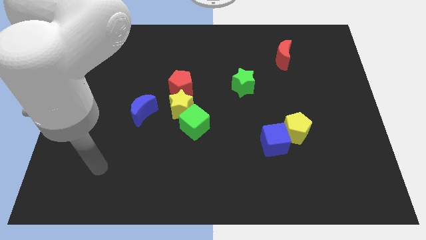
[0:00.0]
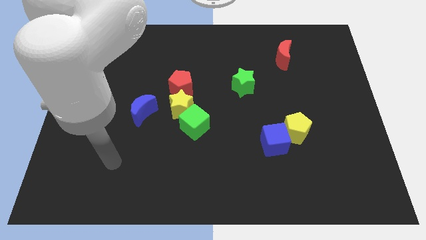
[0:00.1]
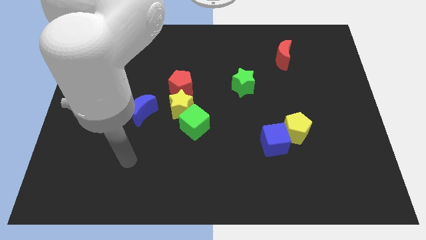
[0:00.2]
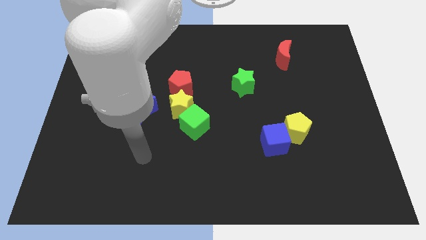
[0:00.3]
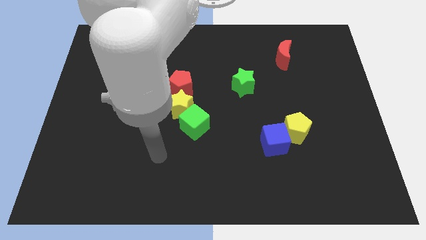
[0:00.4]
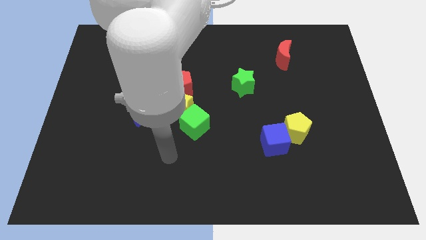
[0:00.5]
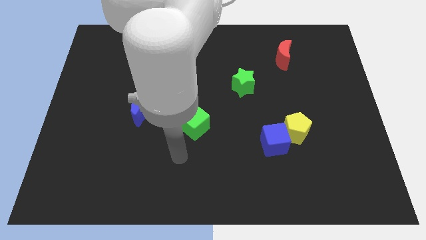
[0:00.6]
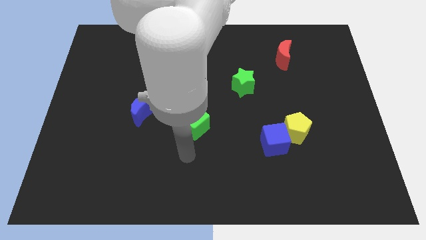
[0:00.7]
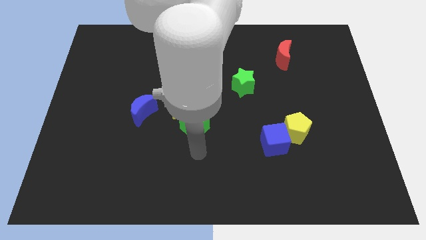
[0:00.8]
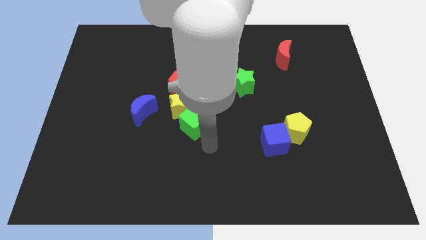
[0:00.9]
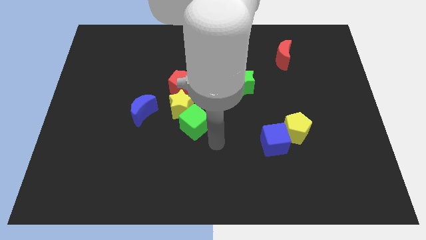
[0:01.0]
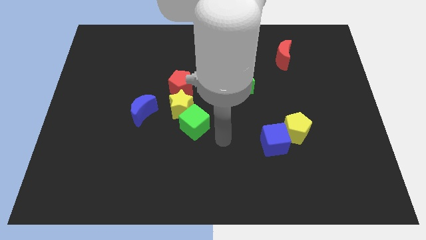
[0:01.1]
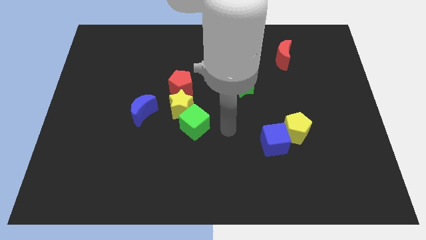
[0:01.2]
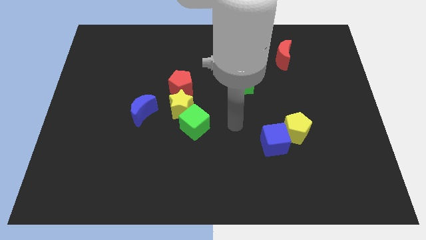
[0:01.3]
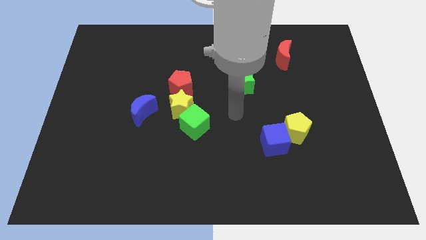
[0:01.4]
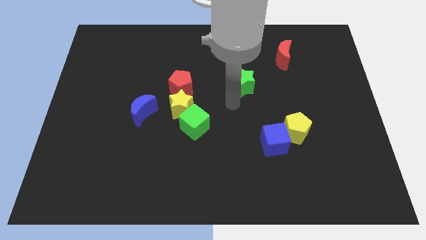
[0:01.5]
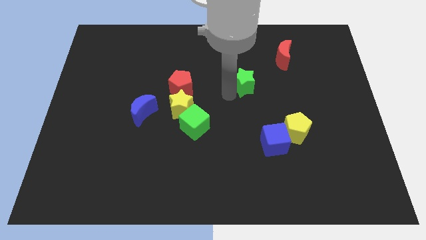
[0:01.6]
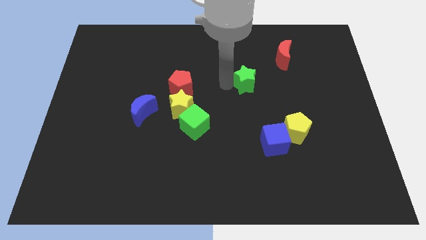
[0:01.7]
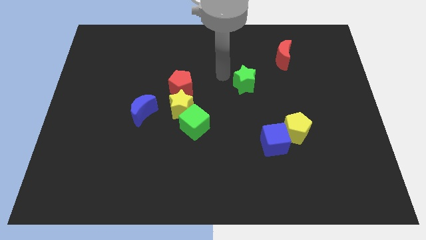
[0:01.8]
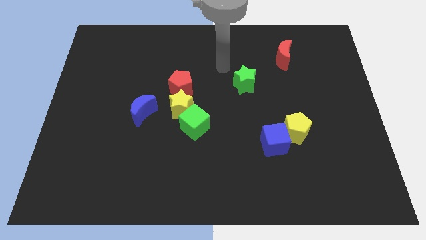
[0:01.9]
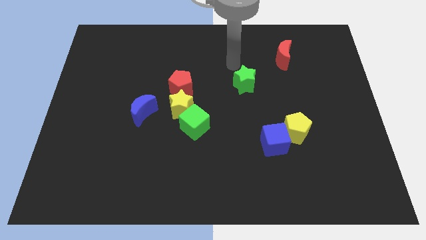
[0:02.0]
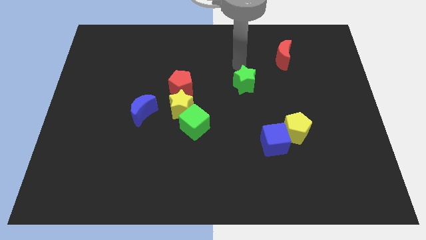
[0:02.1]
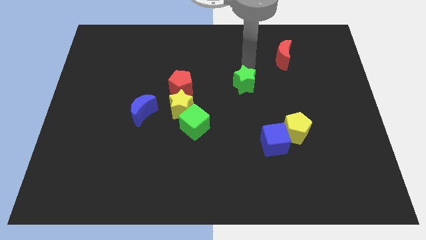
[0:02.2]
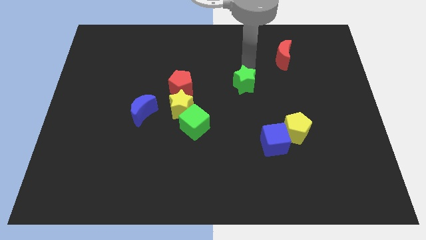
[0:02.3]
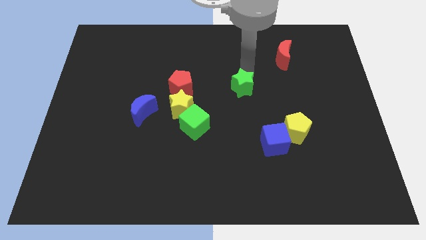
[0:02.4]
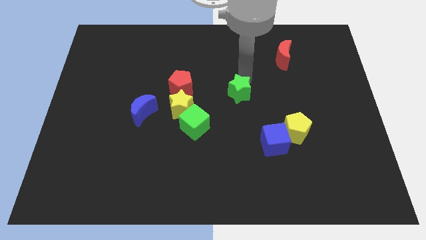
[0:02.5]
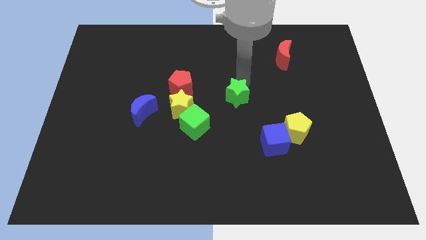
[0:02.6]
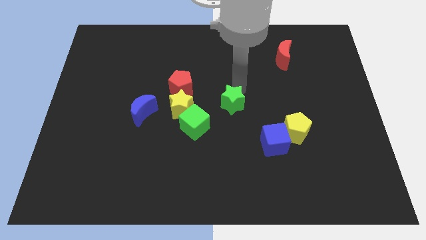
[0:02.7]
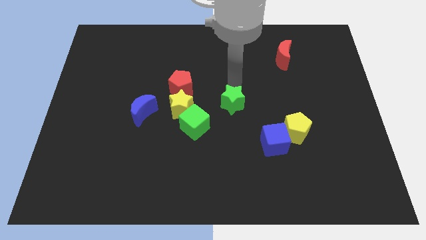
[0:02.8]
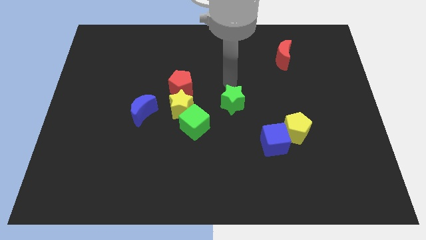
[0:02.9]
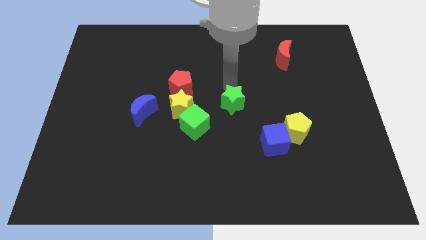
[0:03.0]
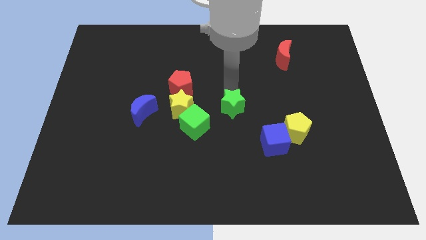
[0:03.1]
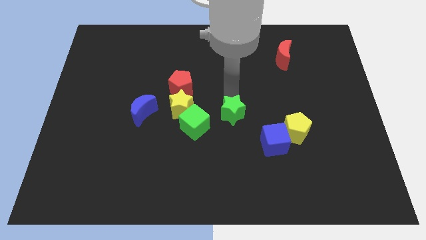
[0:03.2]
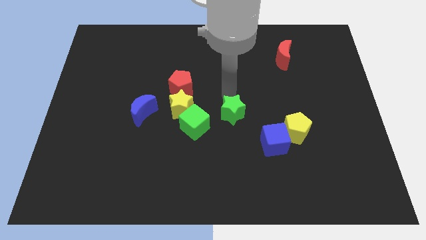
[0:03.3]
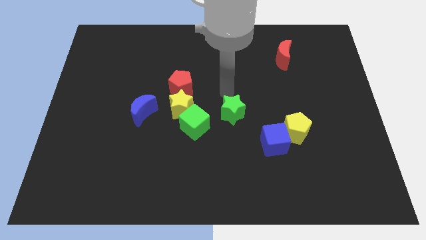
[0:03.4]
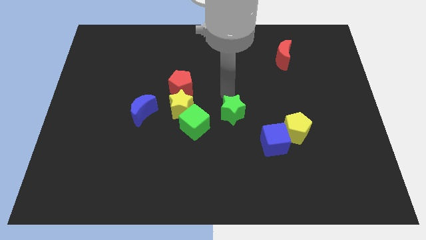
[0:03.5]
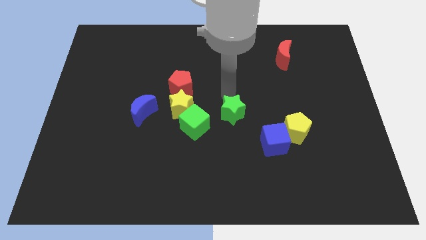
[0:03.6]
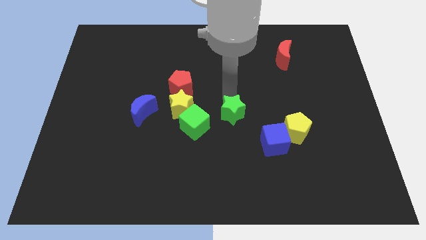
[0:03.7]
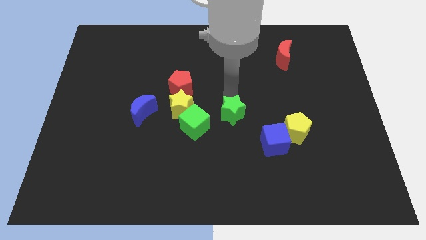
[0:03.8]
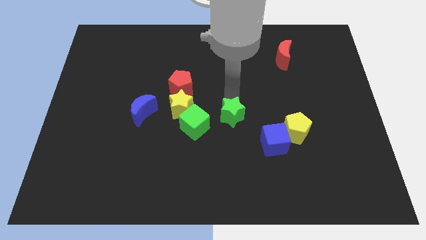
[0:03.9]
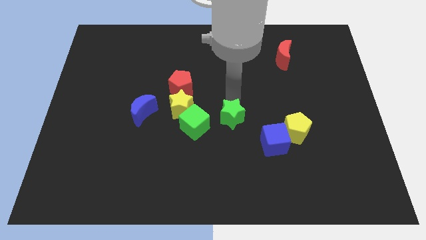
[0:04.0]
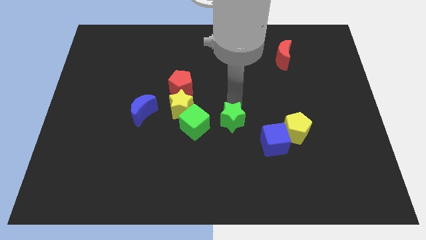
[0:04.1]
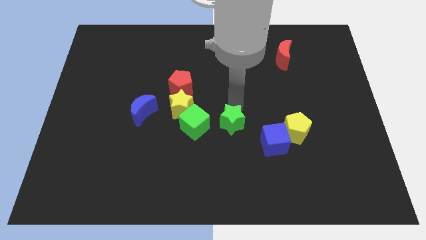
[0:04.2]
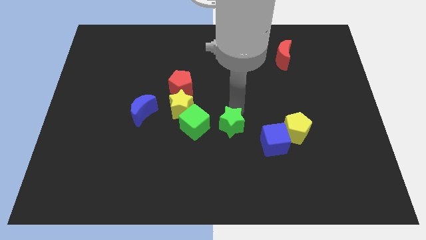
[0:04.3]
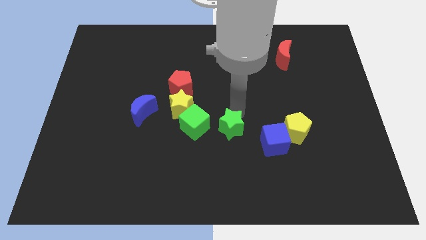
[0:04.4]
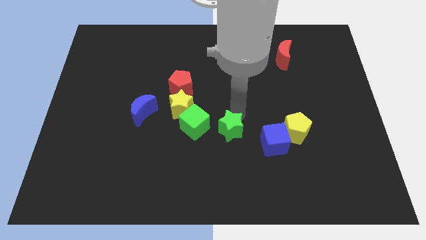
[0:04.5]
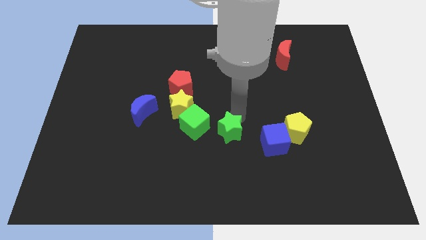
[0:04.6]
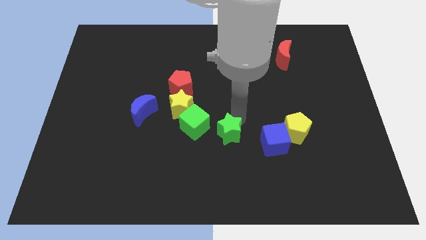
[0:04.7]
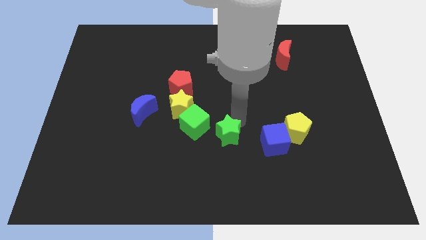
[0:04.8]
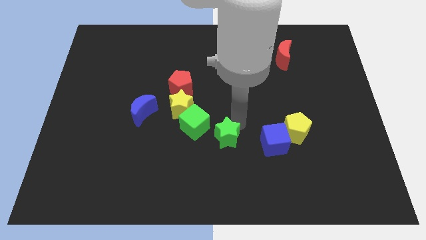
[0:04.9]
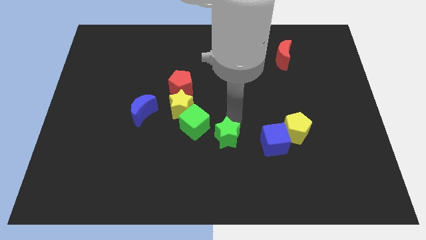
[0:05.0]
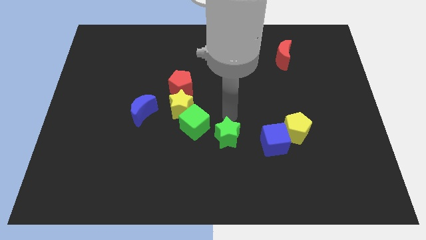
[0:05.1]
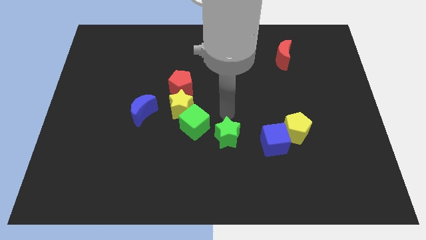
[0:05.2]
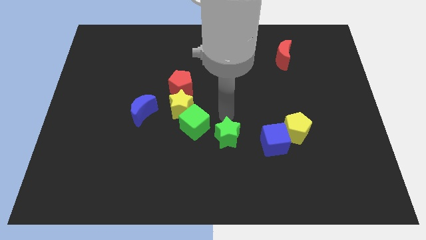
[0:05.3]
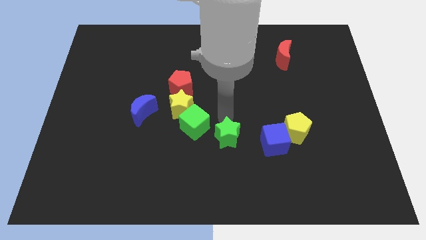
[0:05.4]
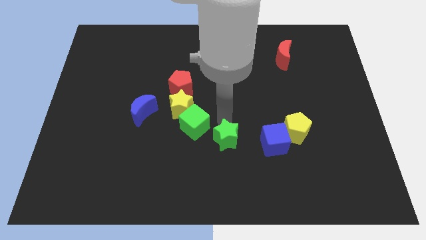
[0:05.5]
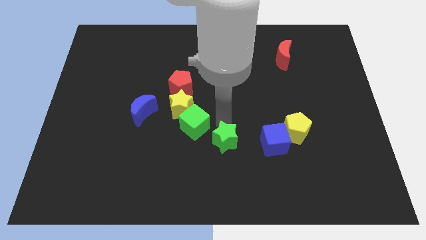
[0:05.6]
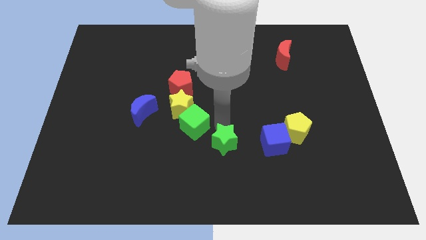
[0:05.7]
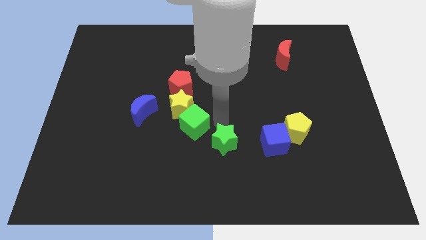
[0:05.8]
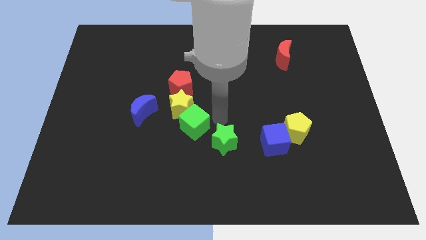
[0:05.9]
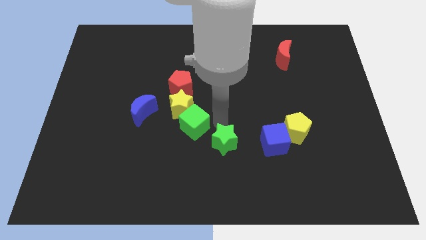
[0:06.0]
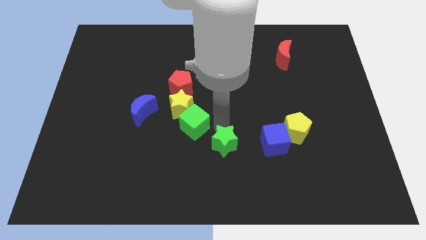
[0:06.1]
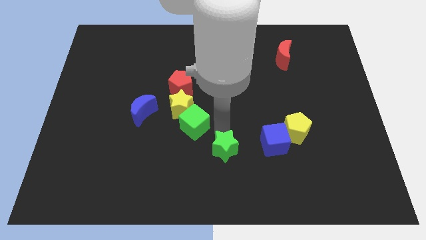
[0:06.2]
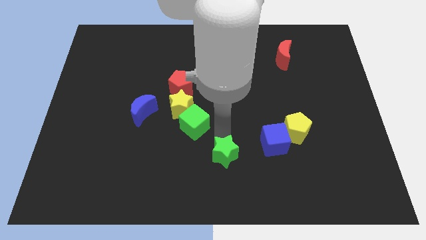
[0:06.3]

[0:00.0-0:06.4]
push the green star to the bottom side
